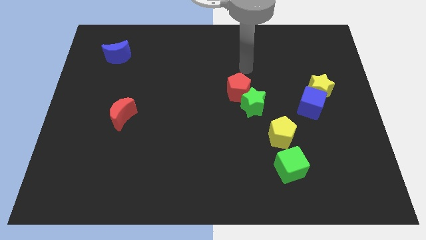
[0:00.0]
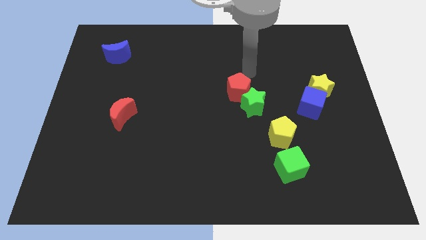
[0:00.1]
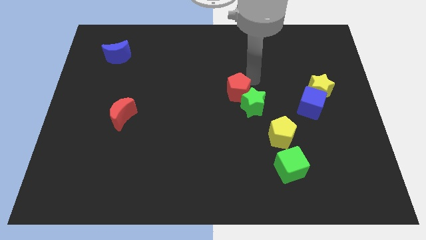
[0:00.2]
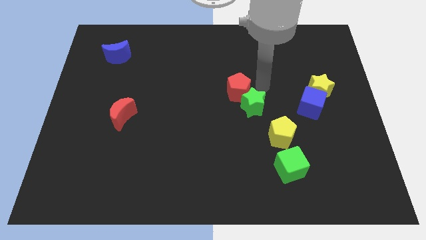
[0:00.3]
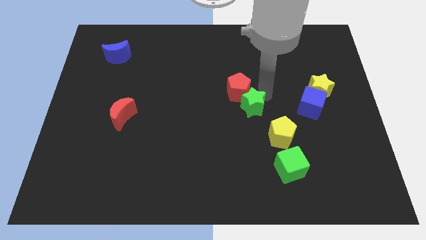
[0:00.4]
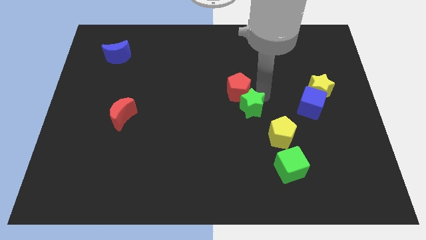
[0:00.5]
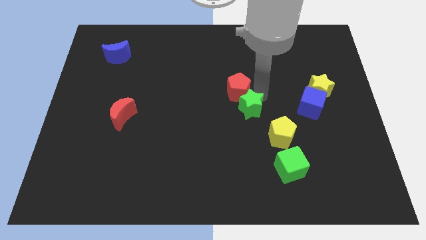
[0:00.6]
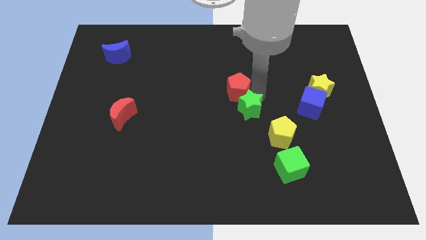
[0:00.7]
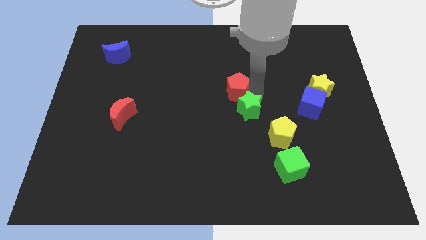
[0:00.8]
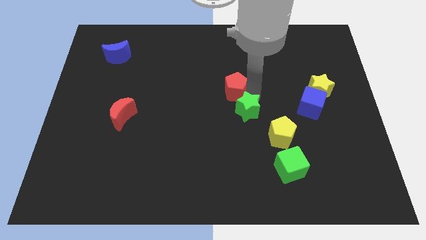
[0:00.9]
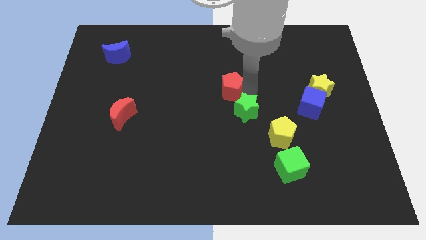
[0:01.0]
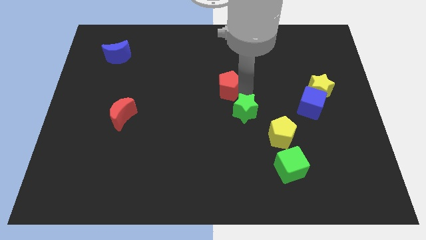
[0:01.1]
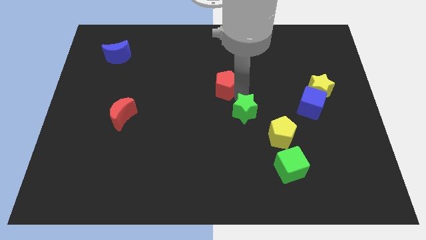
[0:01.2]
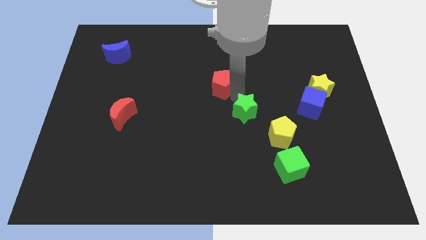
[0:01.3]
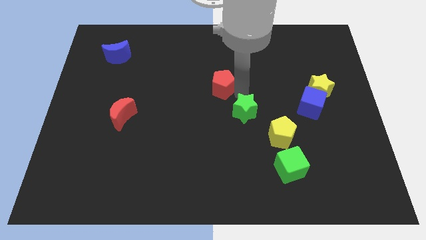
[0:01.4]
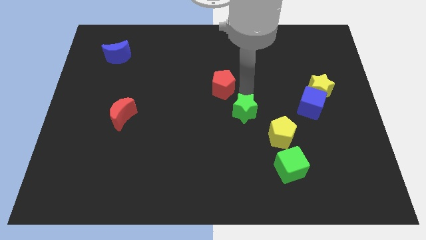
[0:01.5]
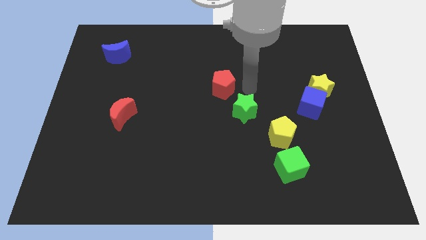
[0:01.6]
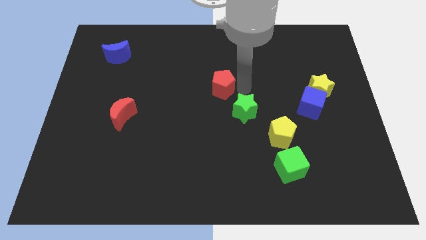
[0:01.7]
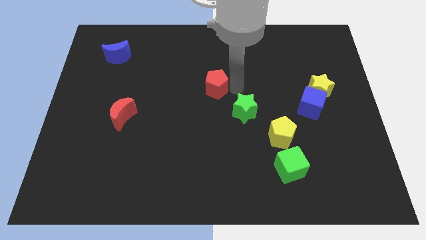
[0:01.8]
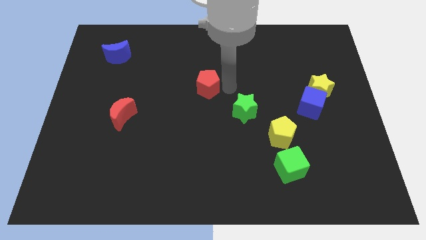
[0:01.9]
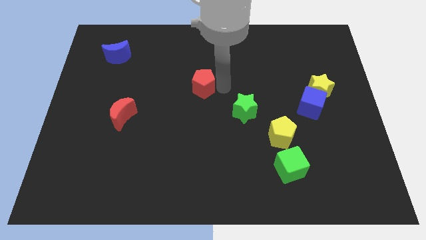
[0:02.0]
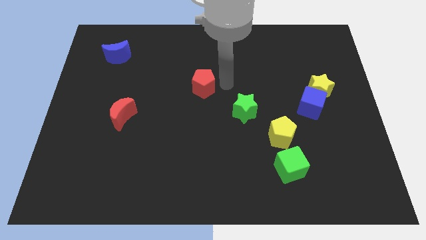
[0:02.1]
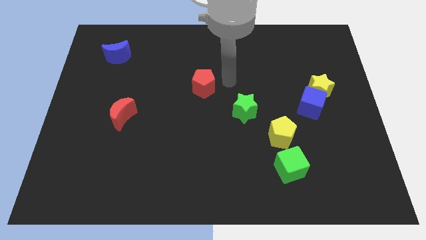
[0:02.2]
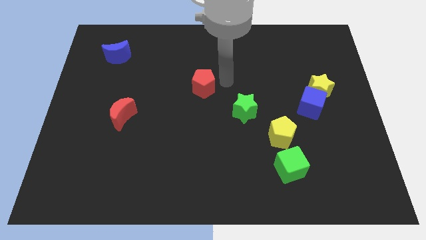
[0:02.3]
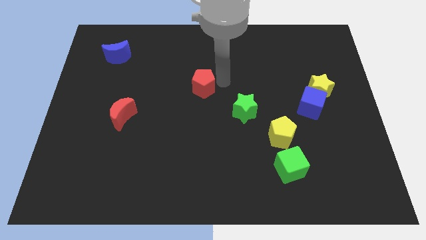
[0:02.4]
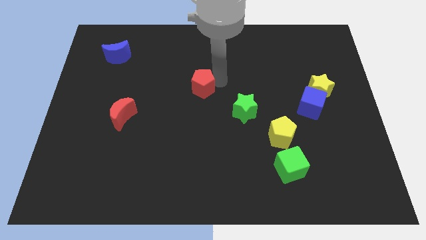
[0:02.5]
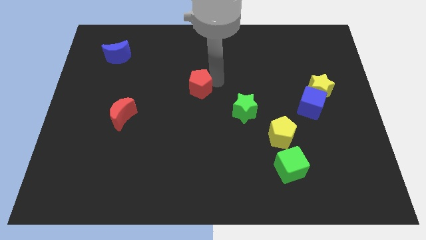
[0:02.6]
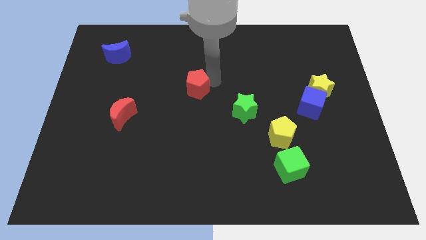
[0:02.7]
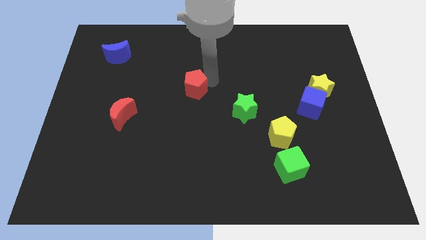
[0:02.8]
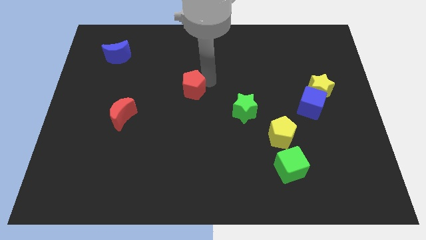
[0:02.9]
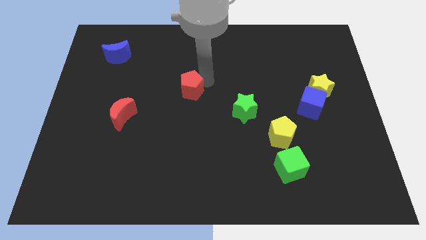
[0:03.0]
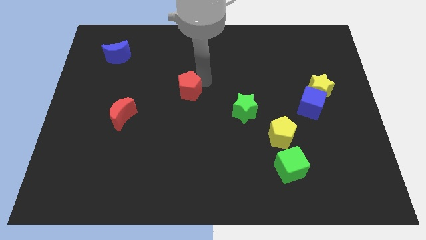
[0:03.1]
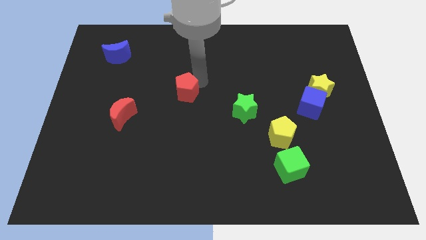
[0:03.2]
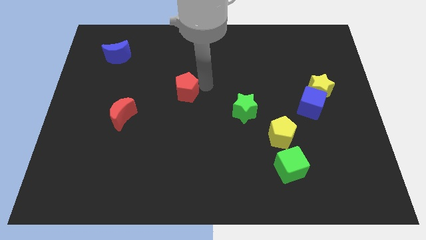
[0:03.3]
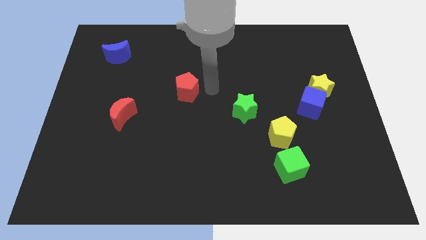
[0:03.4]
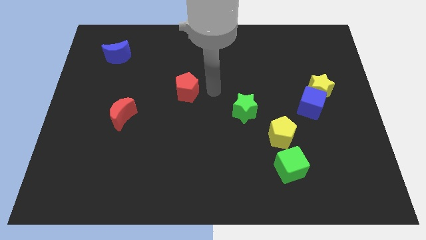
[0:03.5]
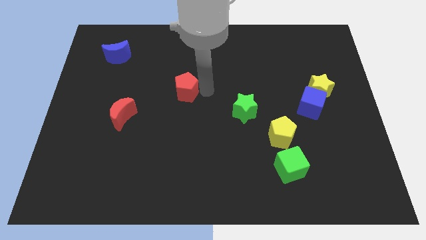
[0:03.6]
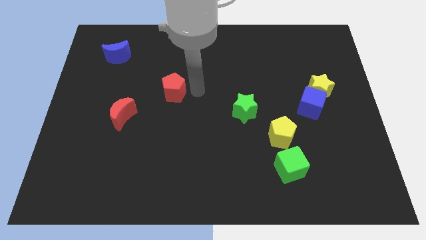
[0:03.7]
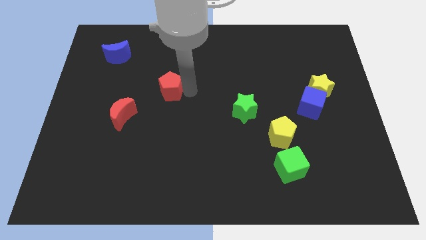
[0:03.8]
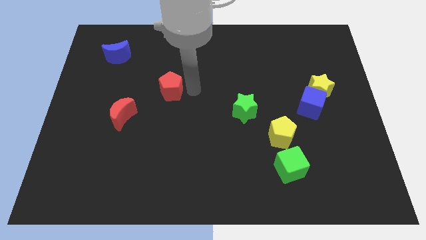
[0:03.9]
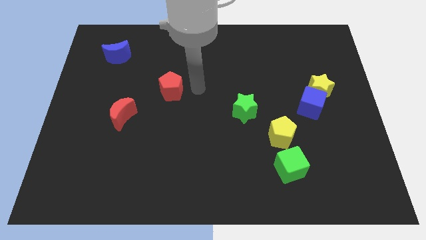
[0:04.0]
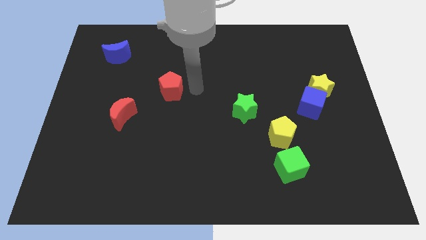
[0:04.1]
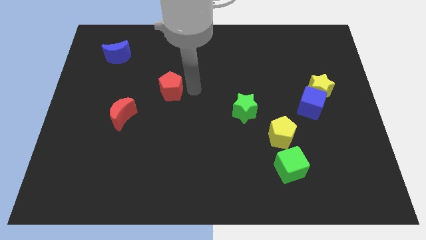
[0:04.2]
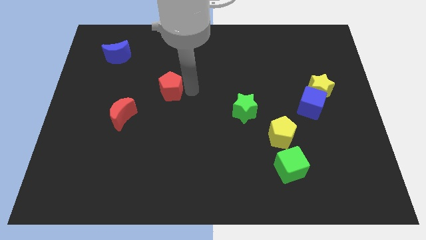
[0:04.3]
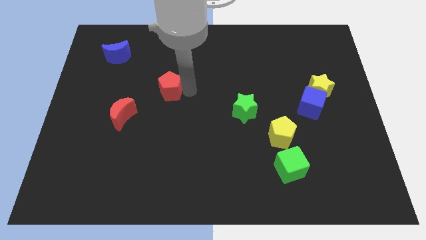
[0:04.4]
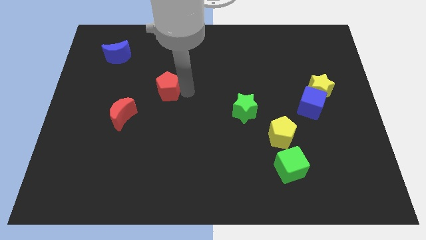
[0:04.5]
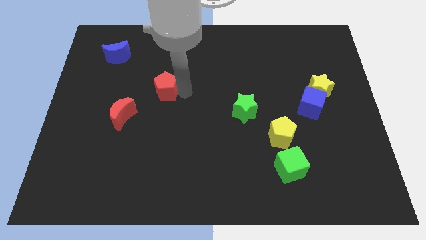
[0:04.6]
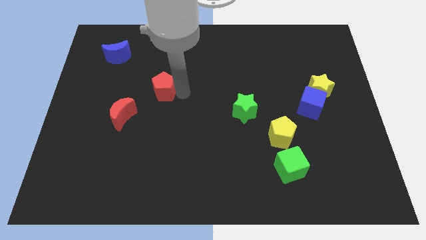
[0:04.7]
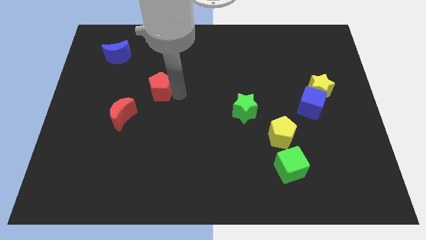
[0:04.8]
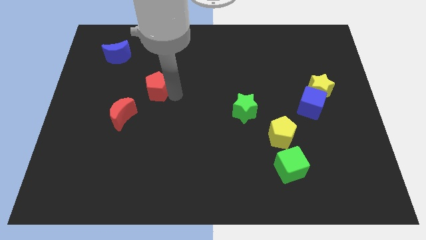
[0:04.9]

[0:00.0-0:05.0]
push the red pentagon left

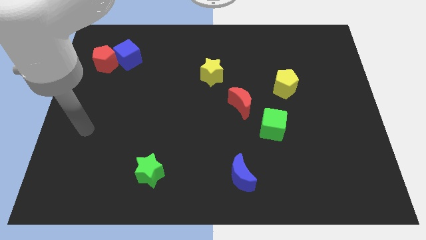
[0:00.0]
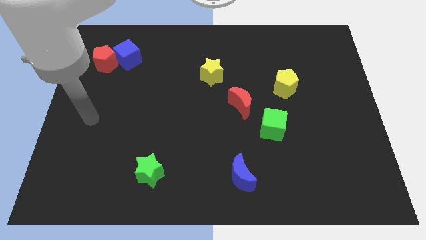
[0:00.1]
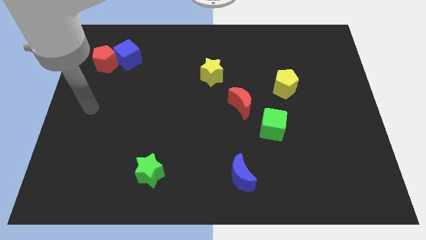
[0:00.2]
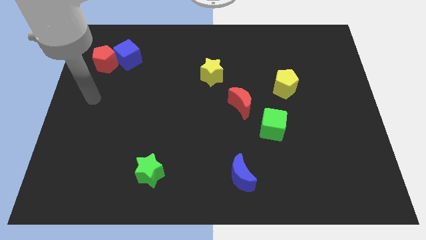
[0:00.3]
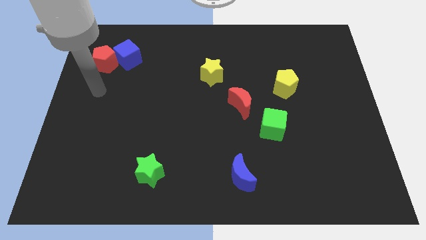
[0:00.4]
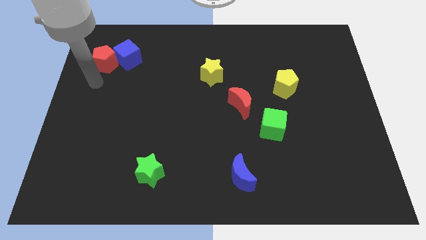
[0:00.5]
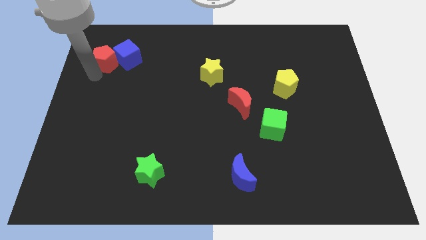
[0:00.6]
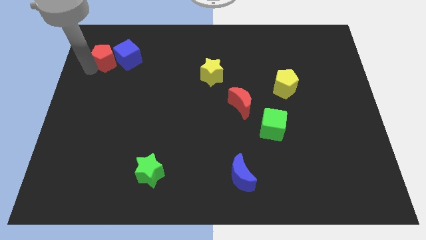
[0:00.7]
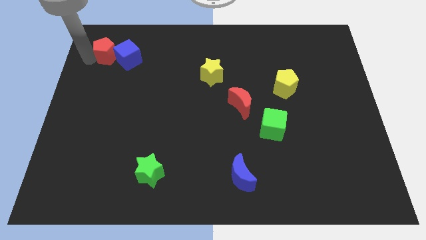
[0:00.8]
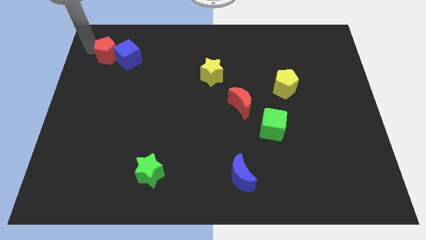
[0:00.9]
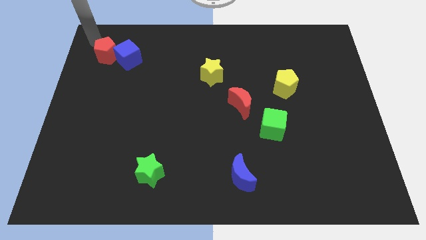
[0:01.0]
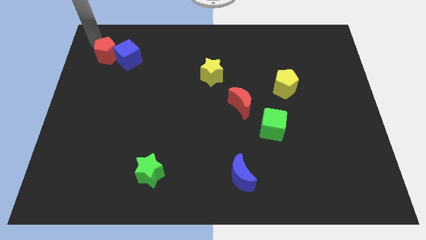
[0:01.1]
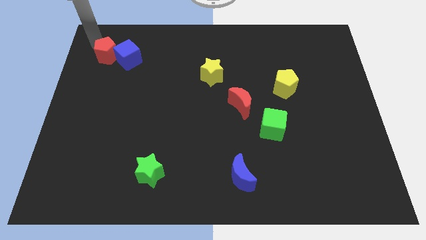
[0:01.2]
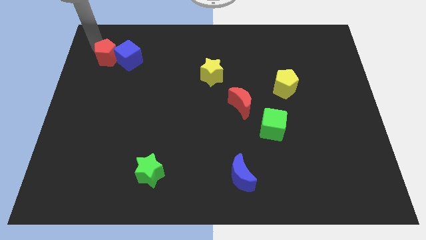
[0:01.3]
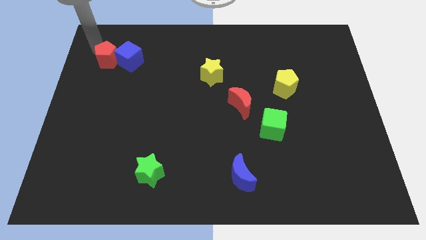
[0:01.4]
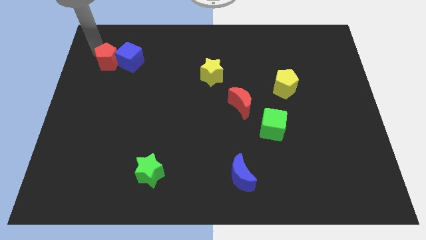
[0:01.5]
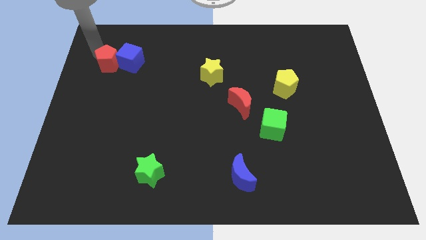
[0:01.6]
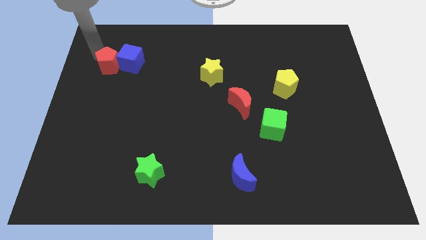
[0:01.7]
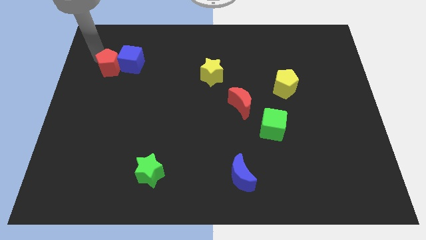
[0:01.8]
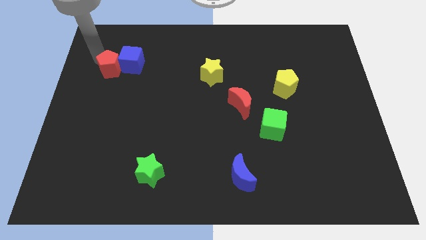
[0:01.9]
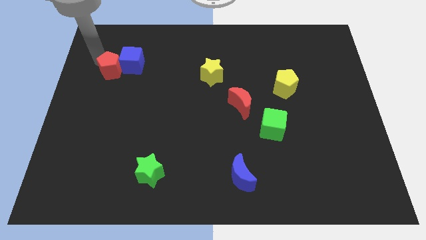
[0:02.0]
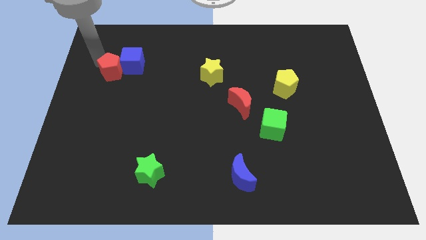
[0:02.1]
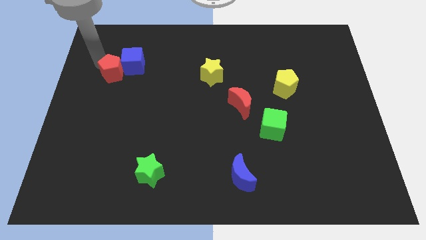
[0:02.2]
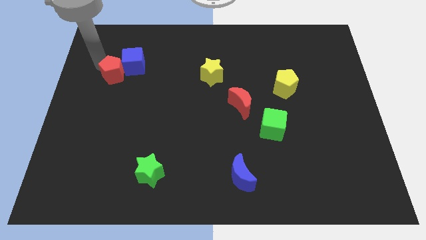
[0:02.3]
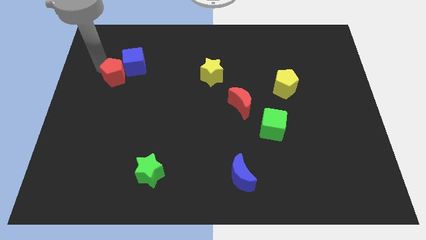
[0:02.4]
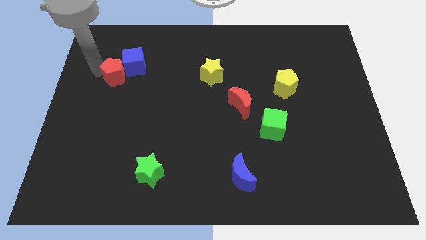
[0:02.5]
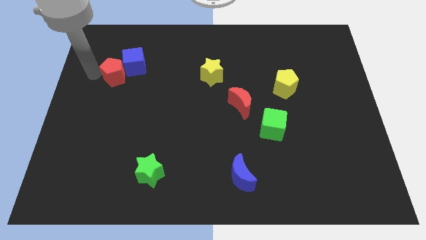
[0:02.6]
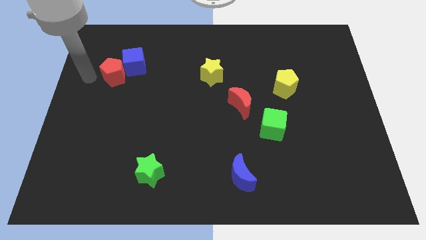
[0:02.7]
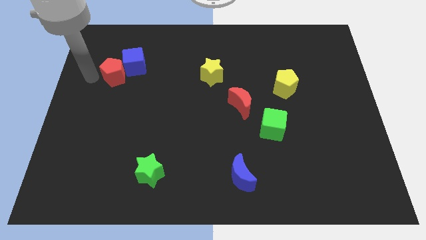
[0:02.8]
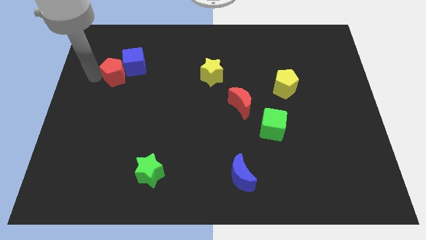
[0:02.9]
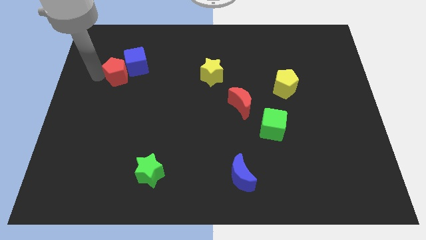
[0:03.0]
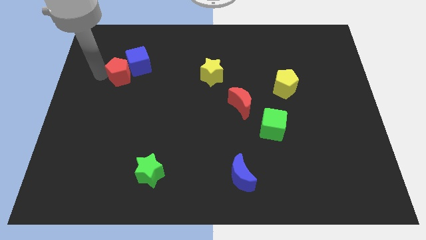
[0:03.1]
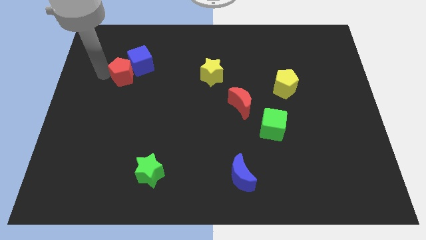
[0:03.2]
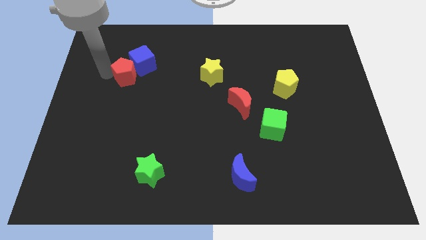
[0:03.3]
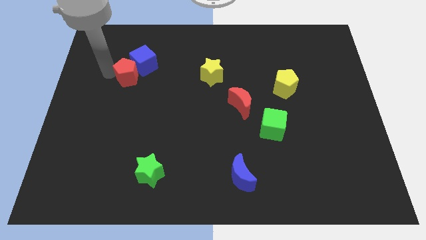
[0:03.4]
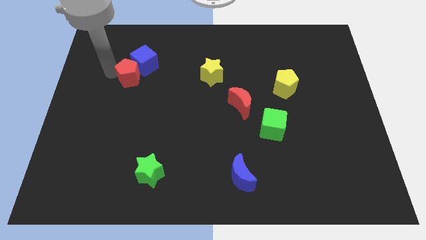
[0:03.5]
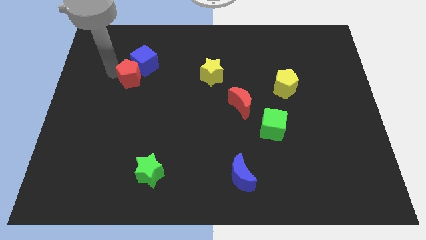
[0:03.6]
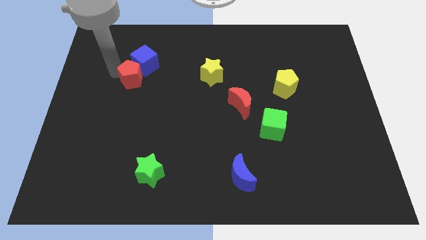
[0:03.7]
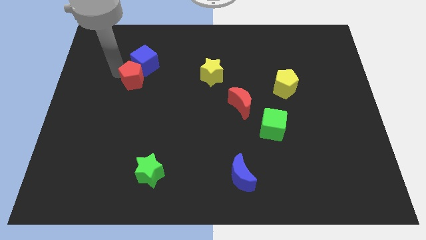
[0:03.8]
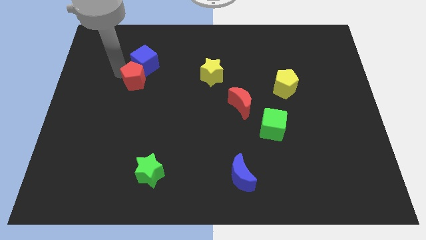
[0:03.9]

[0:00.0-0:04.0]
slightly push the red pentagon to the right
